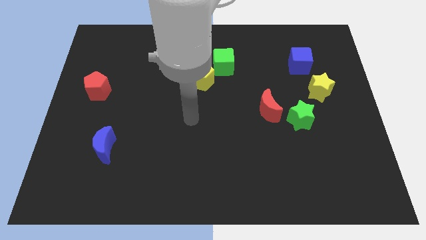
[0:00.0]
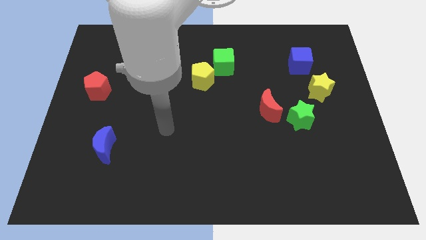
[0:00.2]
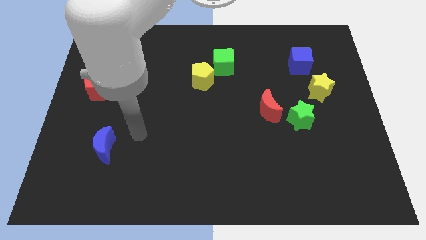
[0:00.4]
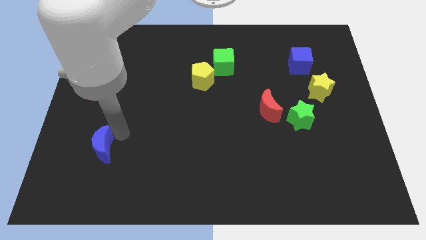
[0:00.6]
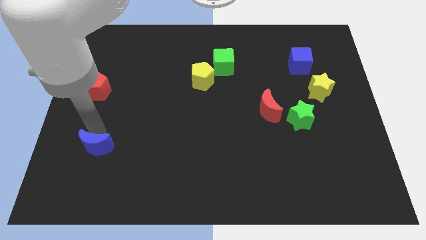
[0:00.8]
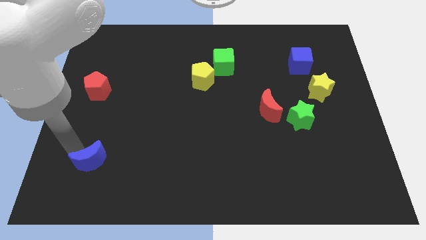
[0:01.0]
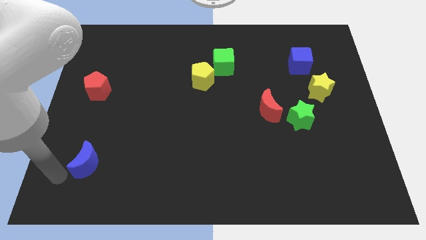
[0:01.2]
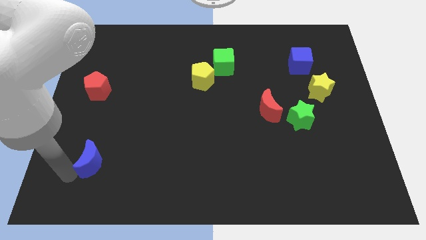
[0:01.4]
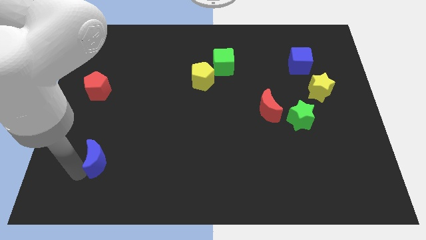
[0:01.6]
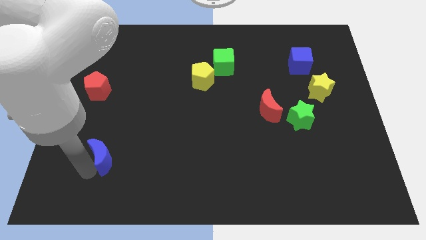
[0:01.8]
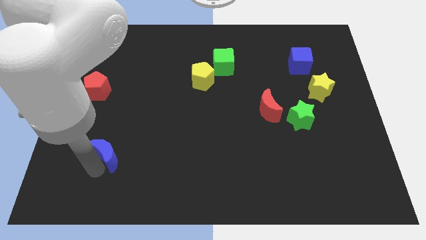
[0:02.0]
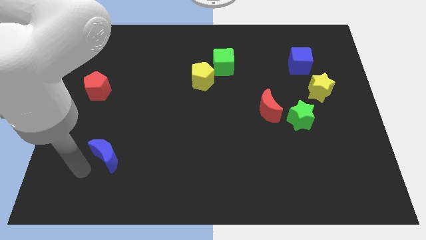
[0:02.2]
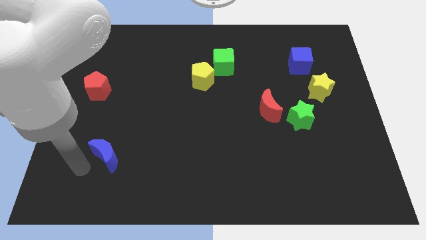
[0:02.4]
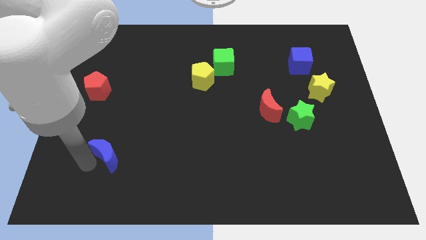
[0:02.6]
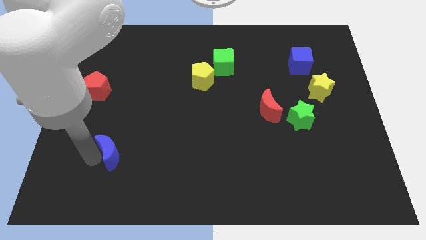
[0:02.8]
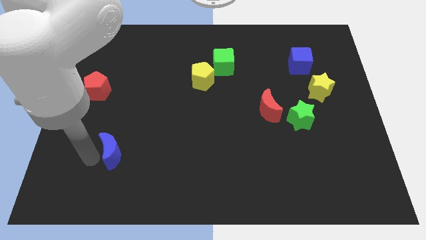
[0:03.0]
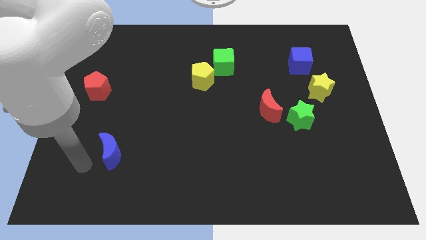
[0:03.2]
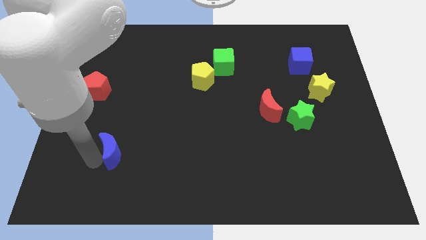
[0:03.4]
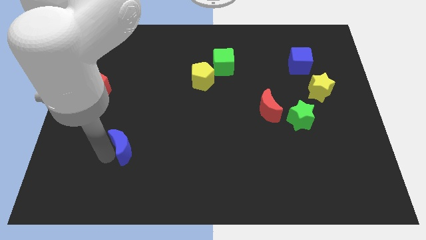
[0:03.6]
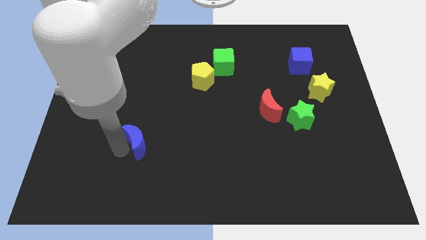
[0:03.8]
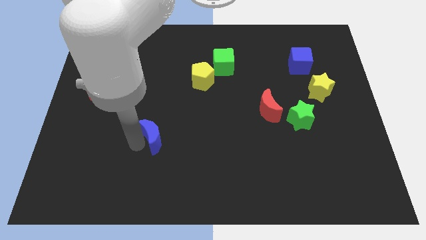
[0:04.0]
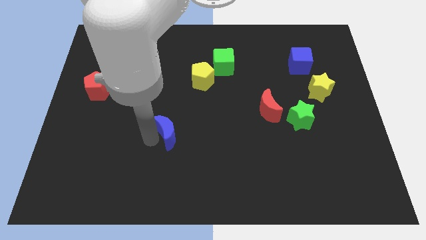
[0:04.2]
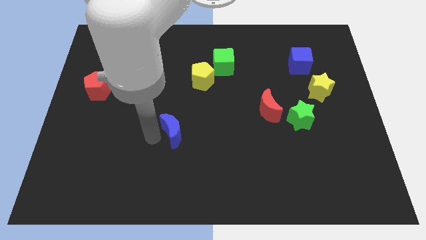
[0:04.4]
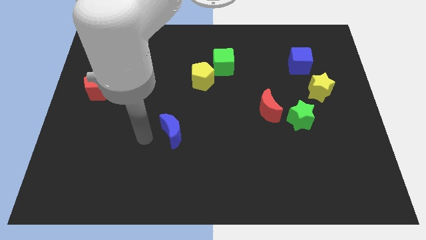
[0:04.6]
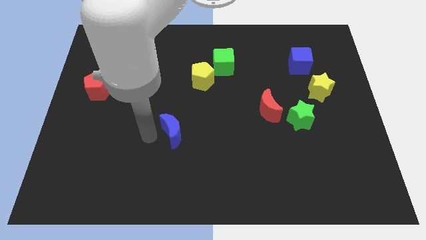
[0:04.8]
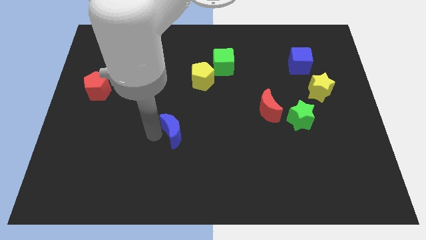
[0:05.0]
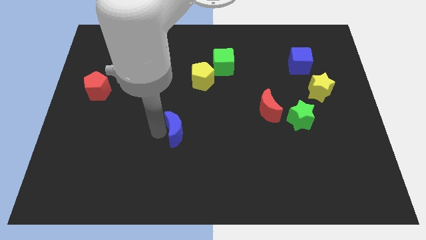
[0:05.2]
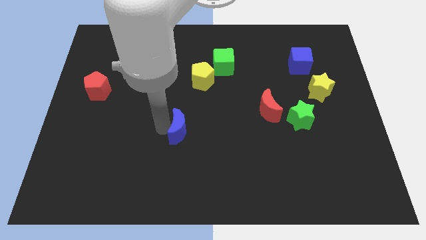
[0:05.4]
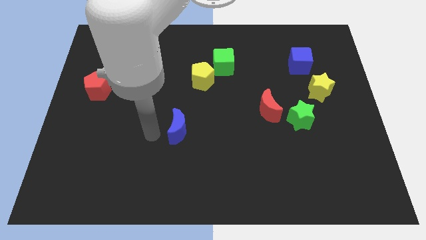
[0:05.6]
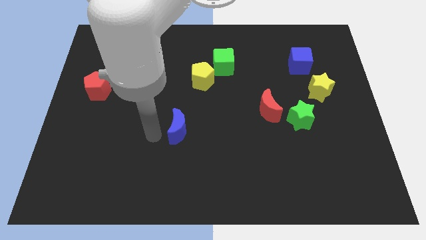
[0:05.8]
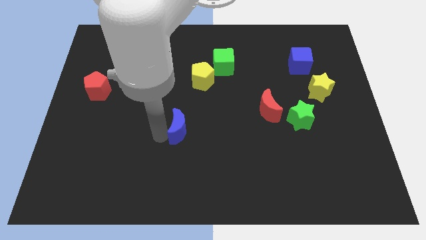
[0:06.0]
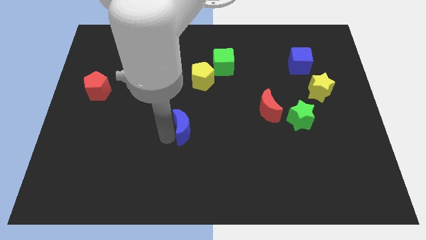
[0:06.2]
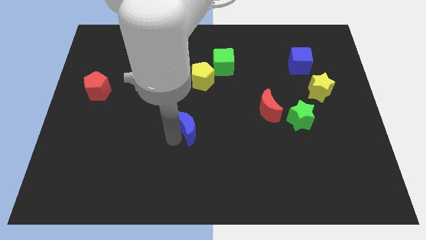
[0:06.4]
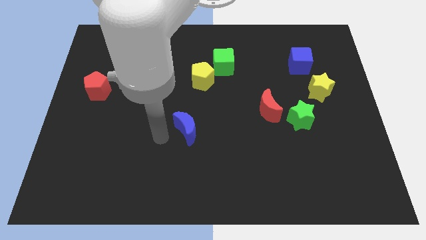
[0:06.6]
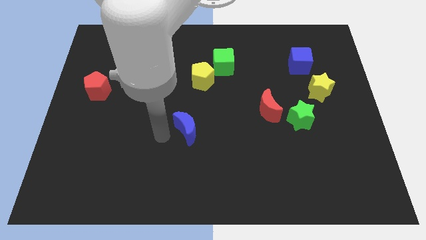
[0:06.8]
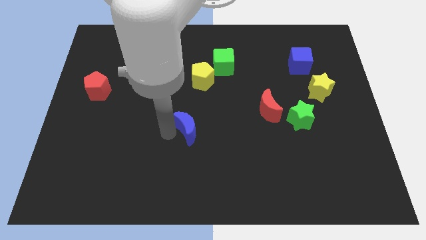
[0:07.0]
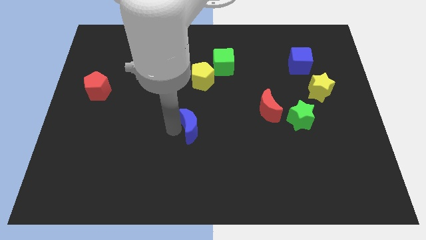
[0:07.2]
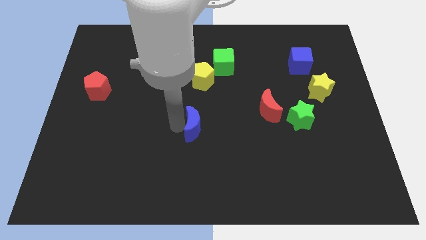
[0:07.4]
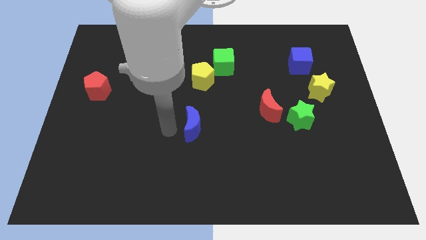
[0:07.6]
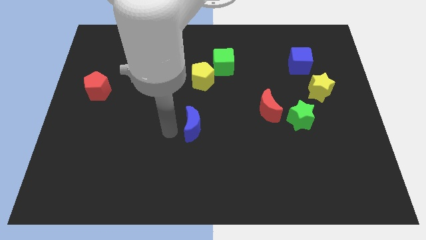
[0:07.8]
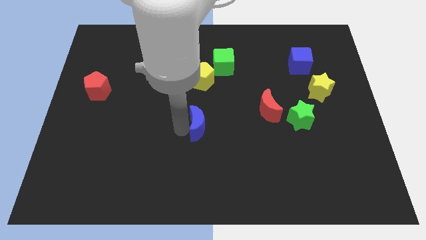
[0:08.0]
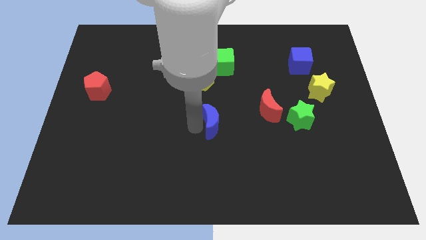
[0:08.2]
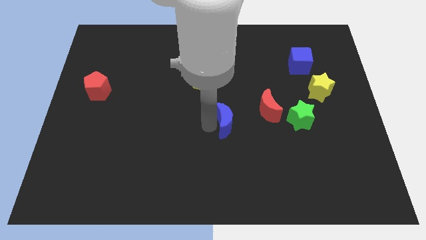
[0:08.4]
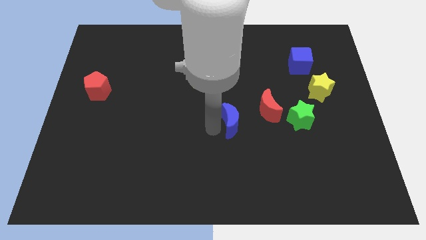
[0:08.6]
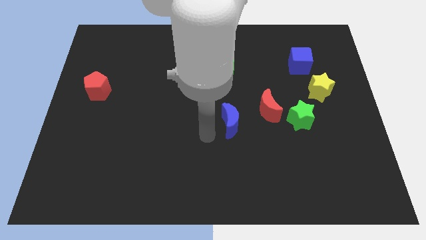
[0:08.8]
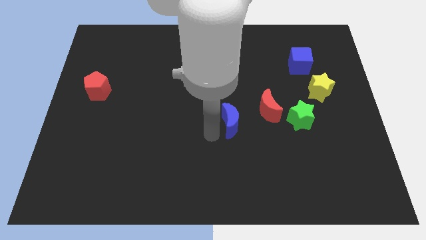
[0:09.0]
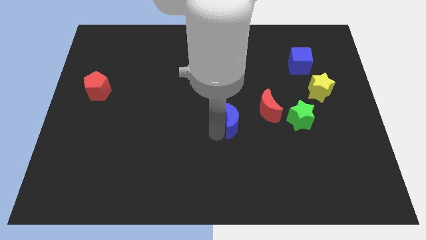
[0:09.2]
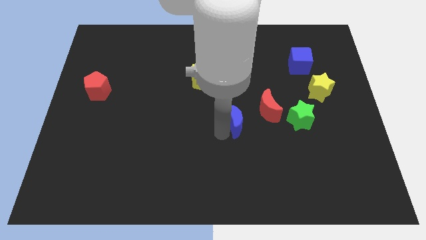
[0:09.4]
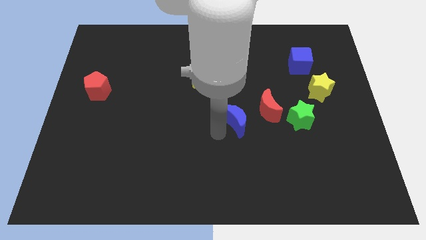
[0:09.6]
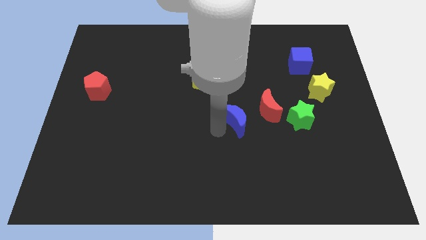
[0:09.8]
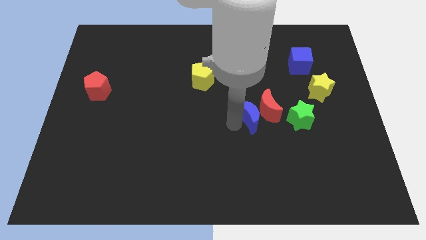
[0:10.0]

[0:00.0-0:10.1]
slide the blue moon towards the red moon

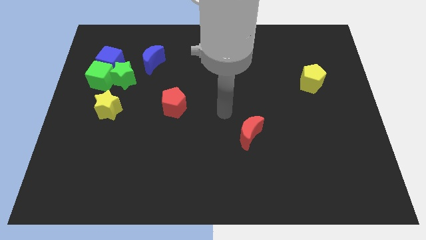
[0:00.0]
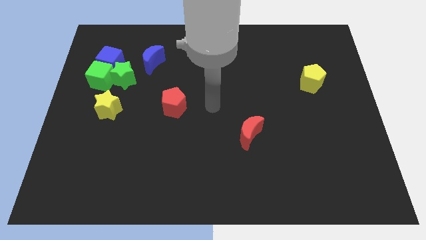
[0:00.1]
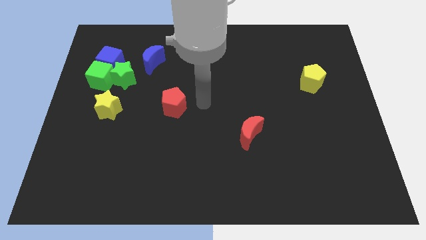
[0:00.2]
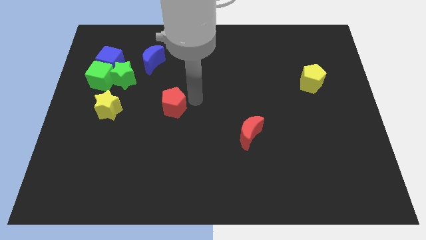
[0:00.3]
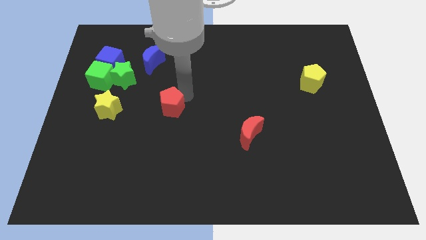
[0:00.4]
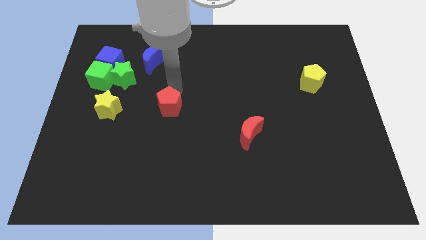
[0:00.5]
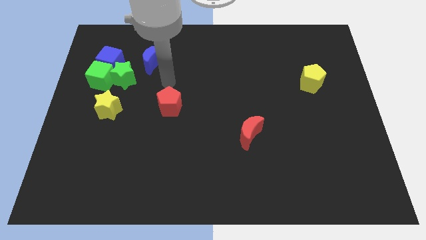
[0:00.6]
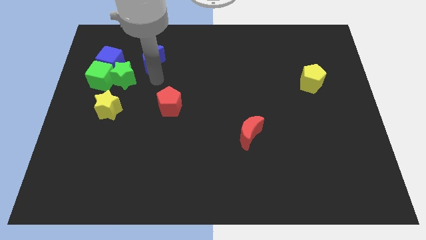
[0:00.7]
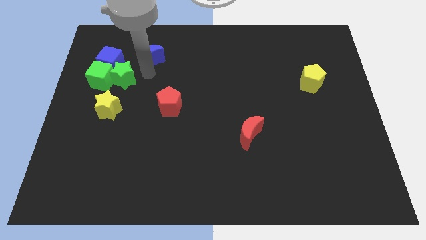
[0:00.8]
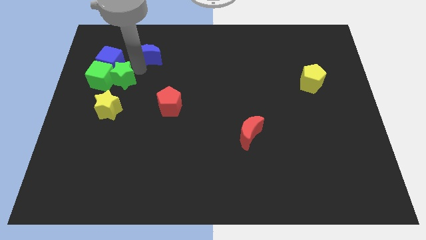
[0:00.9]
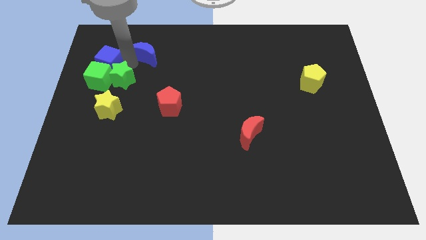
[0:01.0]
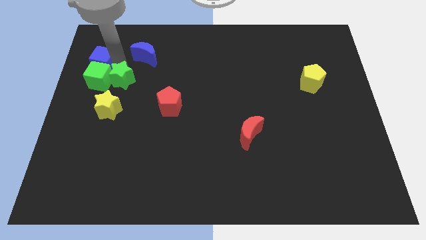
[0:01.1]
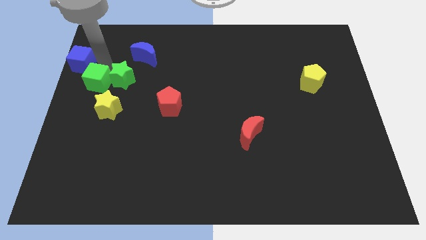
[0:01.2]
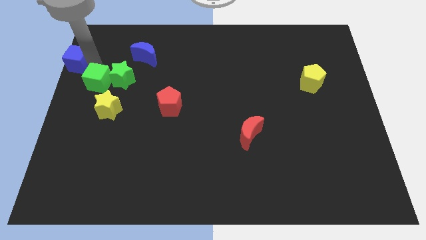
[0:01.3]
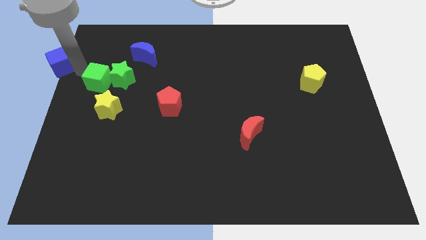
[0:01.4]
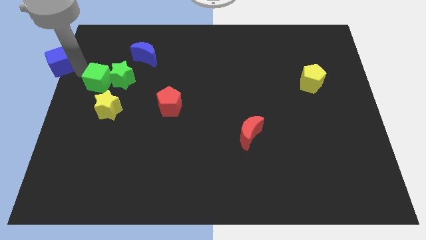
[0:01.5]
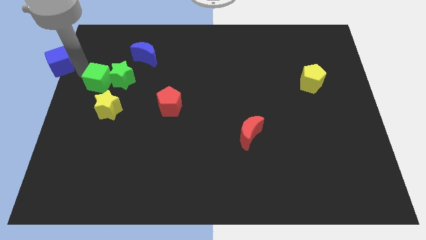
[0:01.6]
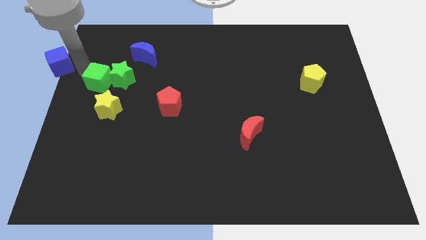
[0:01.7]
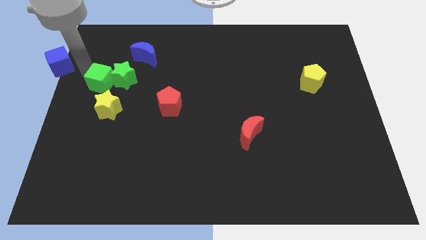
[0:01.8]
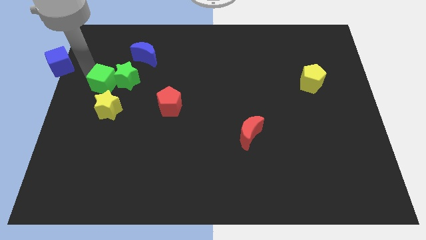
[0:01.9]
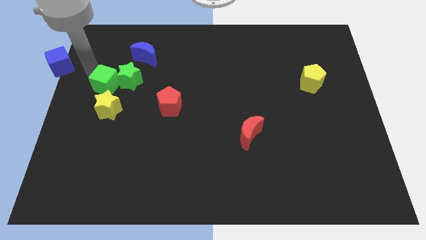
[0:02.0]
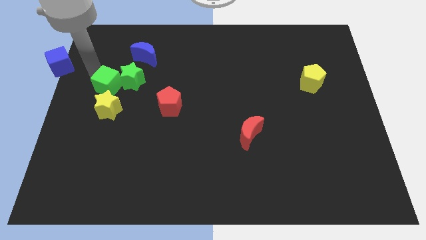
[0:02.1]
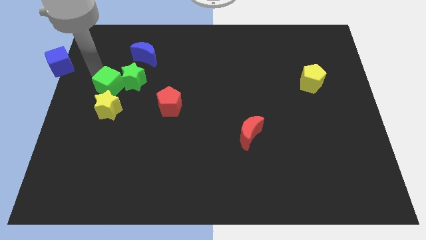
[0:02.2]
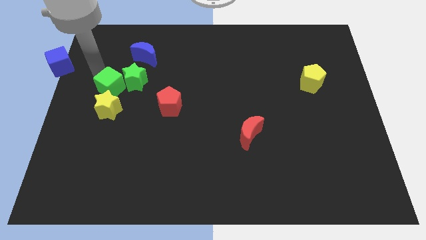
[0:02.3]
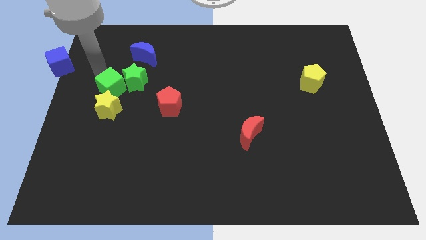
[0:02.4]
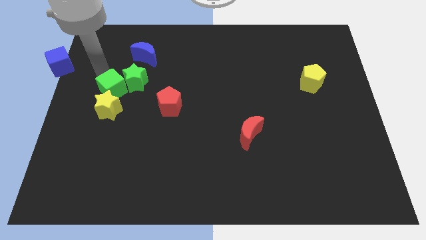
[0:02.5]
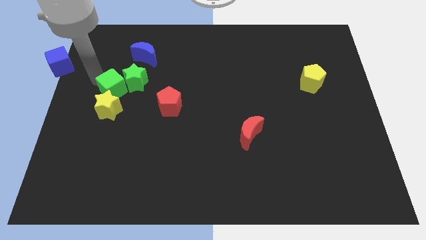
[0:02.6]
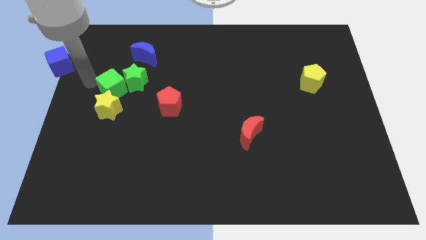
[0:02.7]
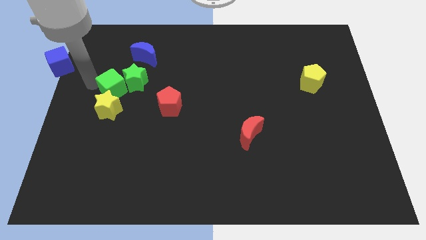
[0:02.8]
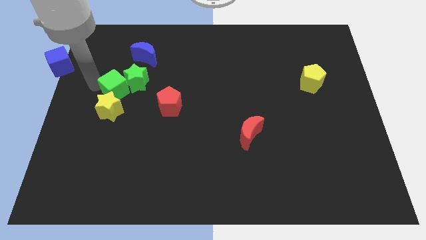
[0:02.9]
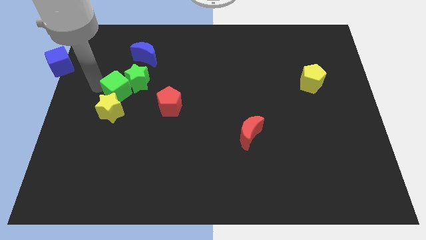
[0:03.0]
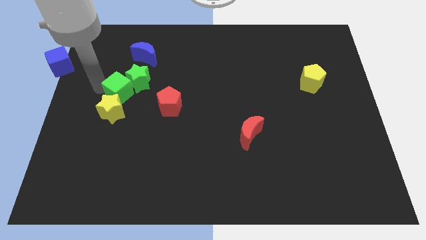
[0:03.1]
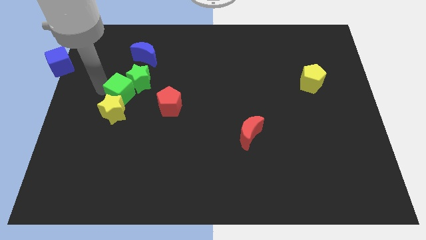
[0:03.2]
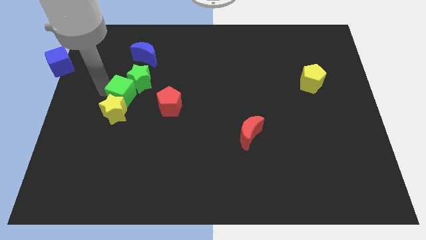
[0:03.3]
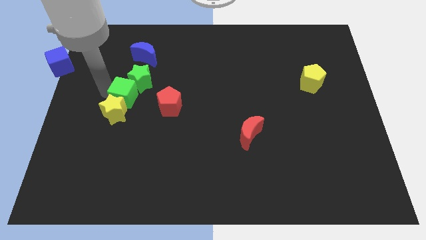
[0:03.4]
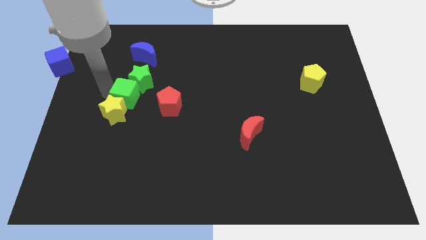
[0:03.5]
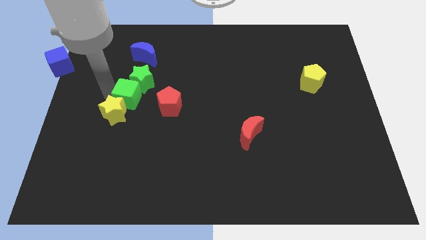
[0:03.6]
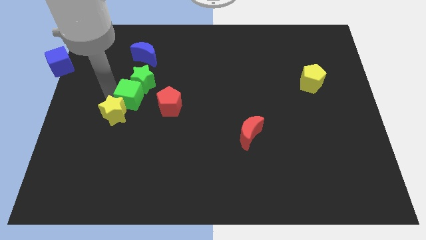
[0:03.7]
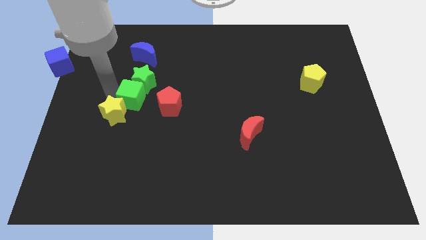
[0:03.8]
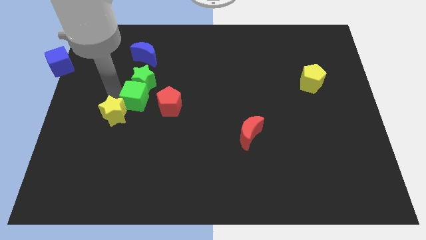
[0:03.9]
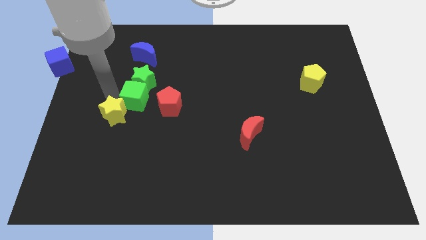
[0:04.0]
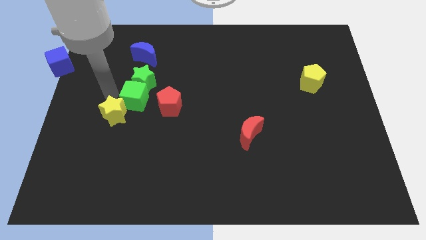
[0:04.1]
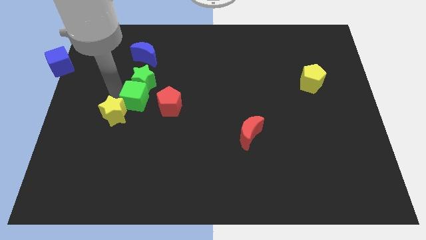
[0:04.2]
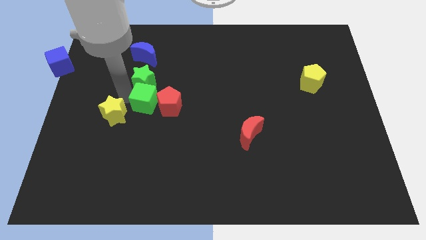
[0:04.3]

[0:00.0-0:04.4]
move the green cube towards the red pentagon
